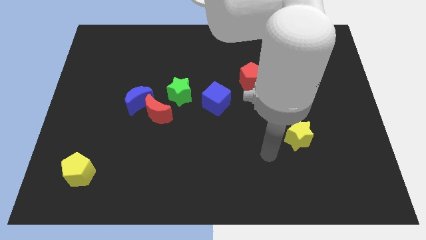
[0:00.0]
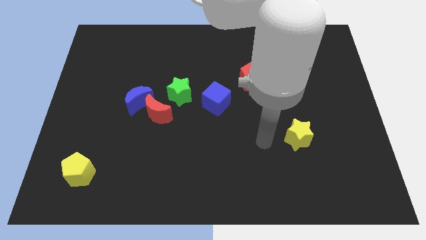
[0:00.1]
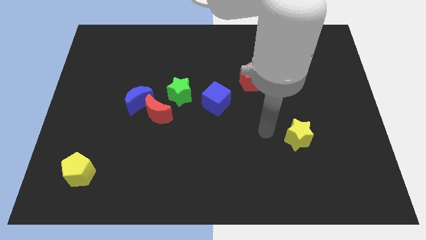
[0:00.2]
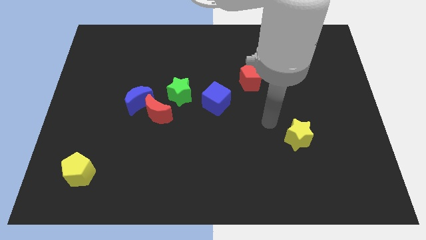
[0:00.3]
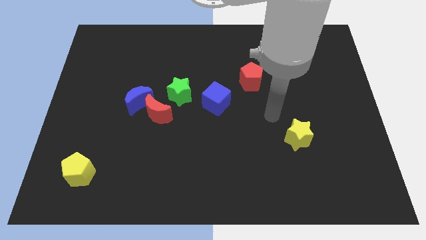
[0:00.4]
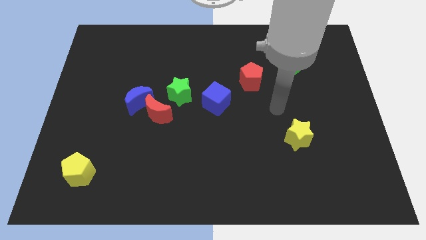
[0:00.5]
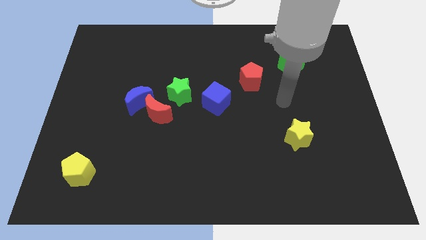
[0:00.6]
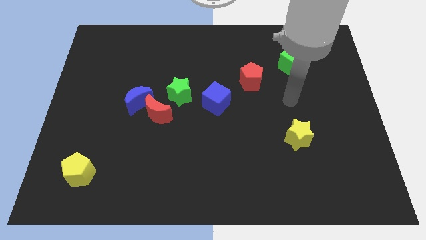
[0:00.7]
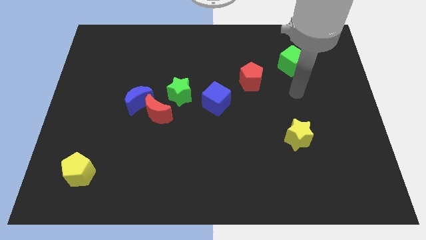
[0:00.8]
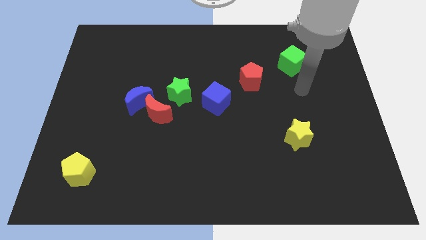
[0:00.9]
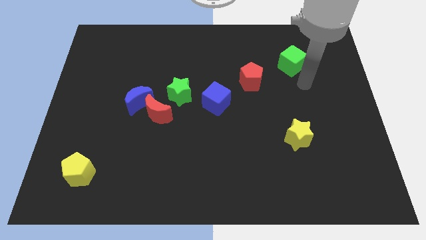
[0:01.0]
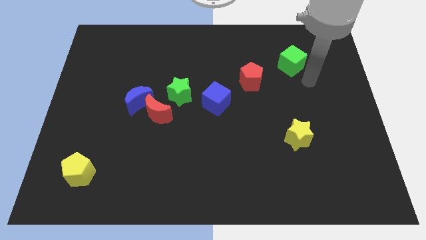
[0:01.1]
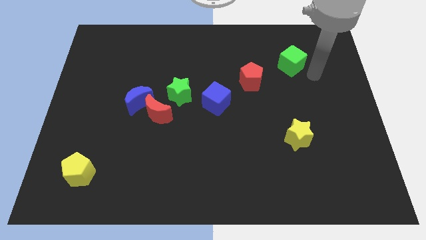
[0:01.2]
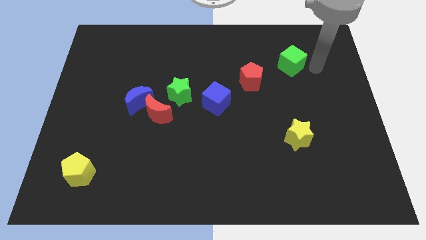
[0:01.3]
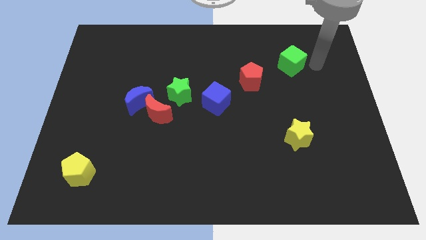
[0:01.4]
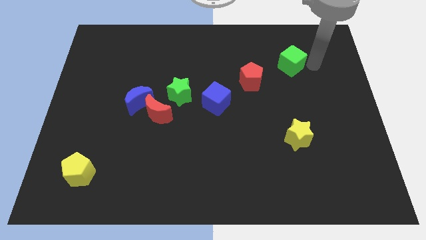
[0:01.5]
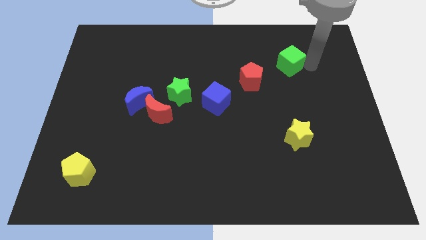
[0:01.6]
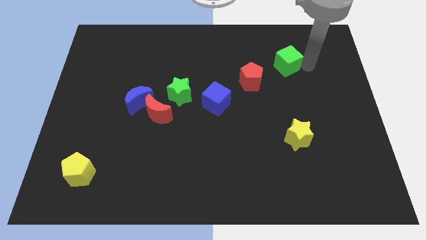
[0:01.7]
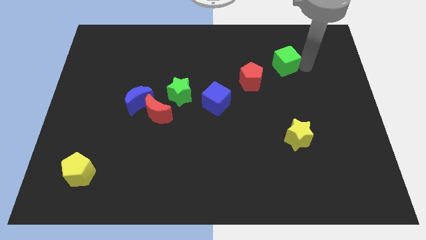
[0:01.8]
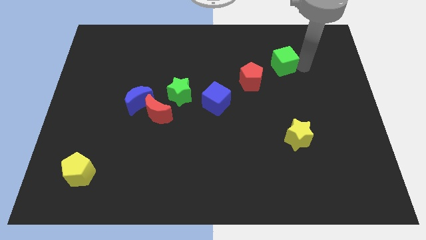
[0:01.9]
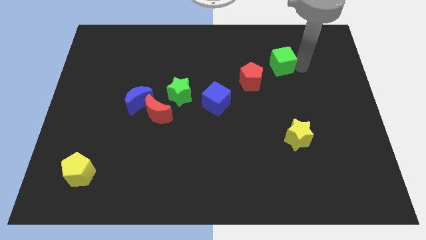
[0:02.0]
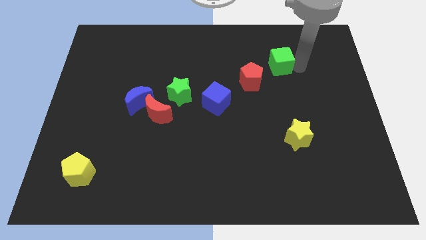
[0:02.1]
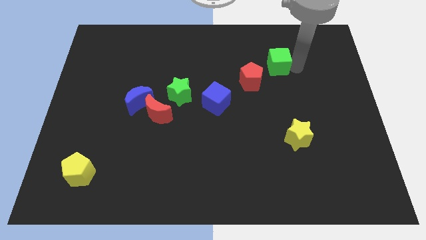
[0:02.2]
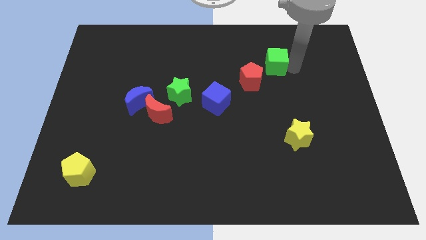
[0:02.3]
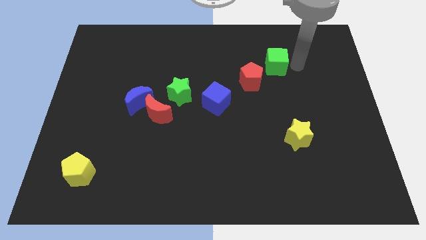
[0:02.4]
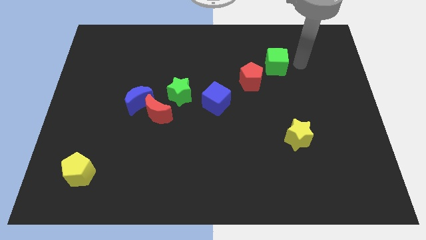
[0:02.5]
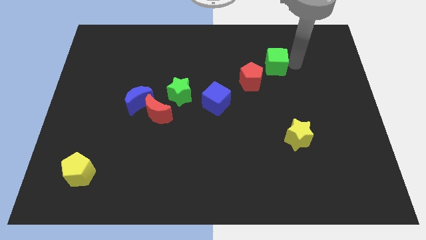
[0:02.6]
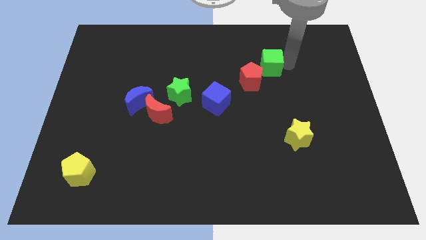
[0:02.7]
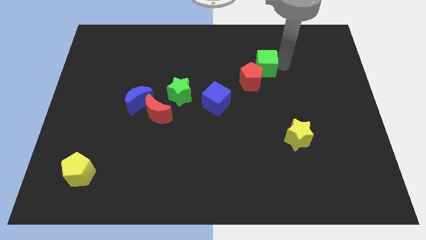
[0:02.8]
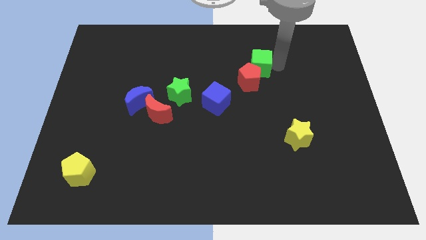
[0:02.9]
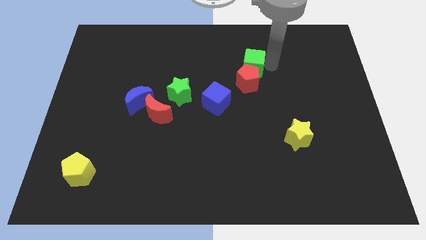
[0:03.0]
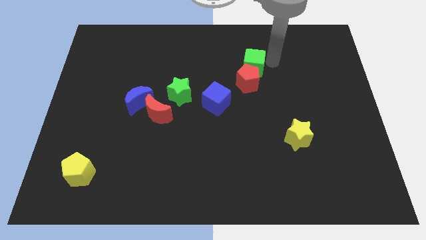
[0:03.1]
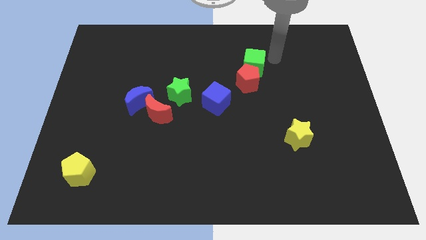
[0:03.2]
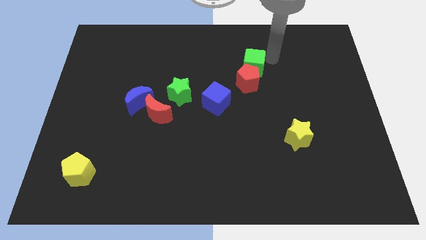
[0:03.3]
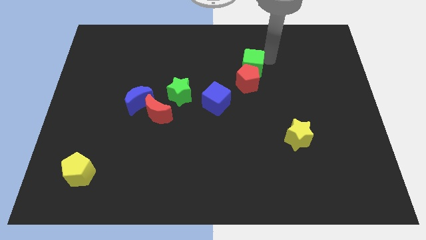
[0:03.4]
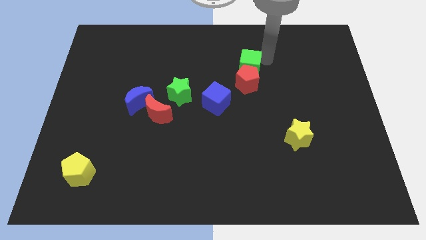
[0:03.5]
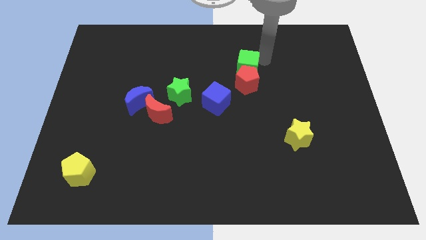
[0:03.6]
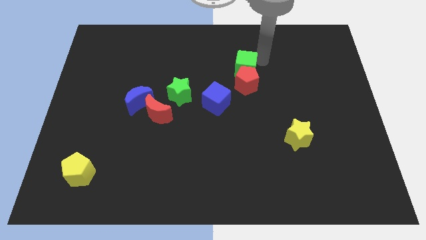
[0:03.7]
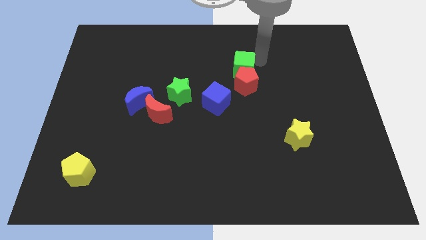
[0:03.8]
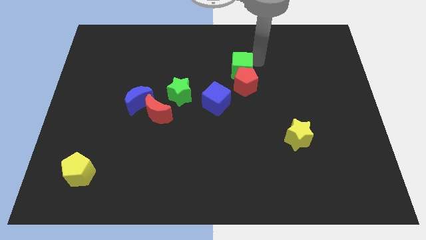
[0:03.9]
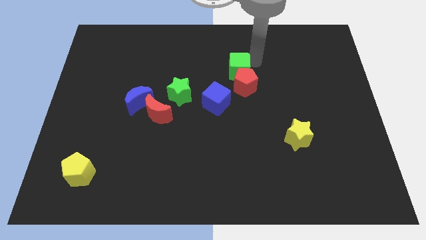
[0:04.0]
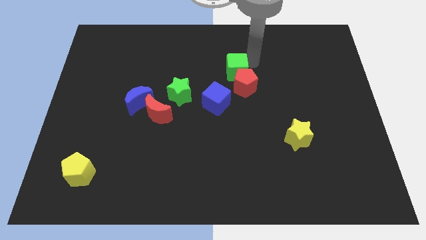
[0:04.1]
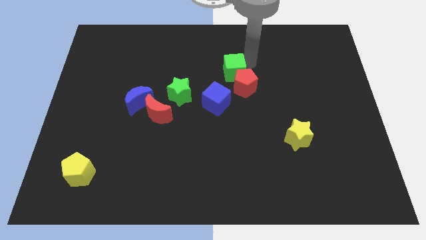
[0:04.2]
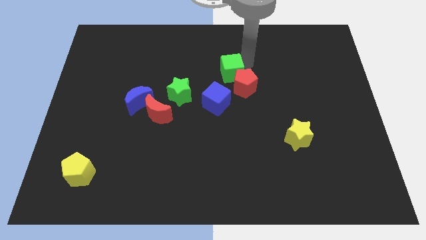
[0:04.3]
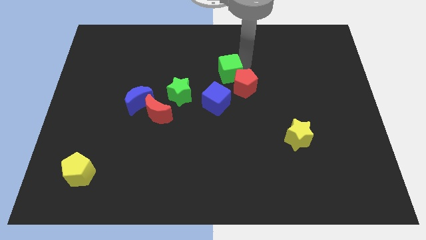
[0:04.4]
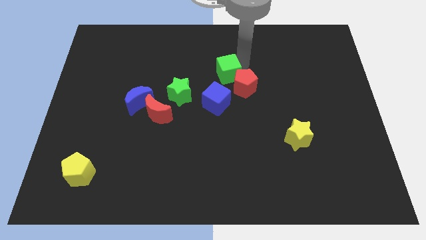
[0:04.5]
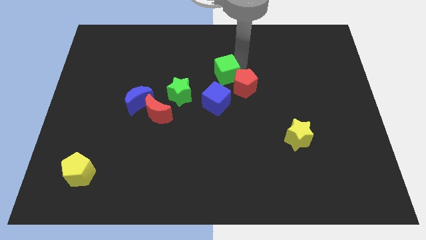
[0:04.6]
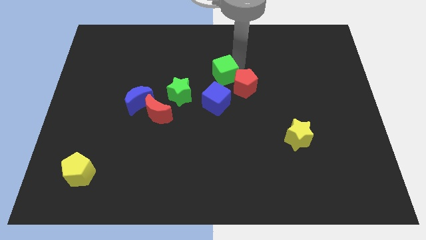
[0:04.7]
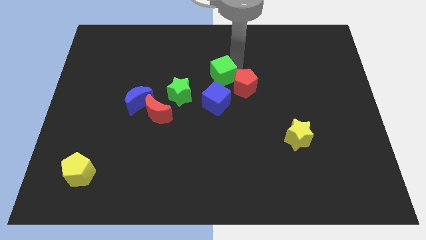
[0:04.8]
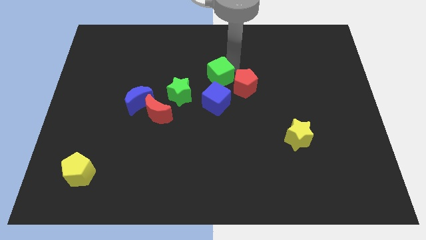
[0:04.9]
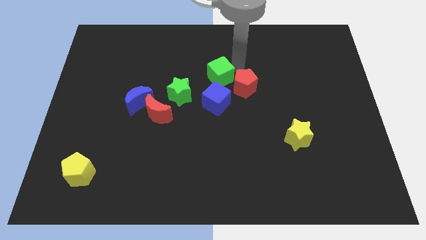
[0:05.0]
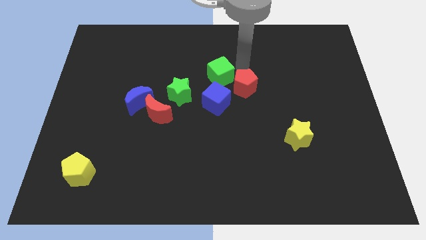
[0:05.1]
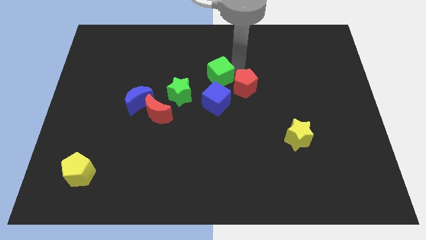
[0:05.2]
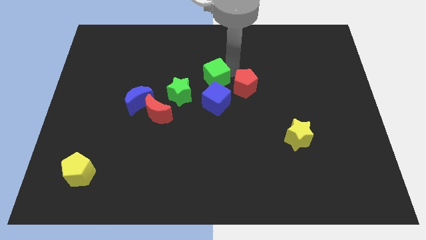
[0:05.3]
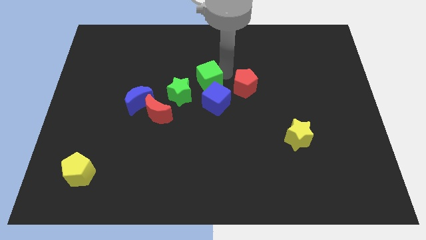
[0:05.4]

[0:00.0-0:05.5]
push the green cube diagonally up and to the left of the blue cube

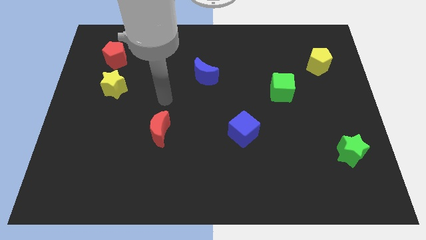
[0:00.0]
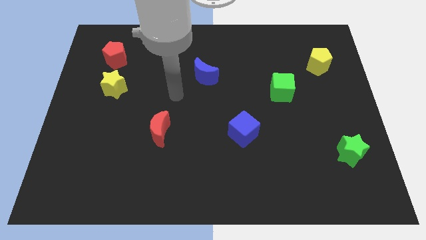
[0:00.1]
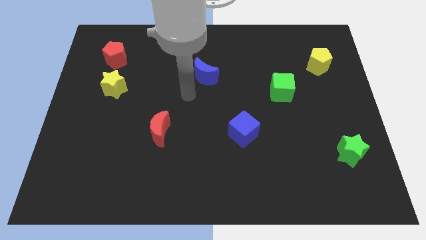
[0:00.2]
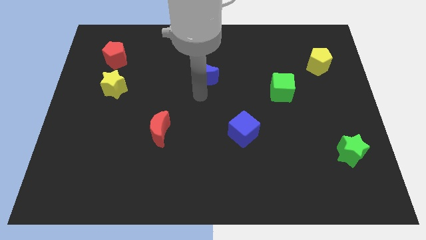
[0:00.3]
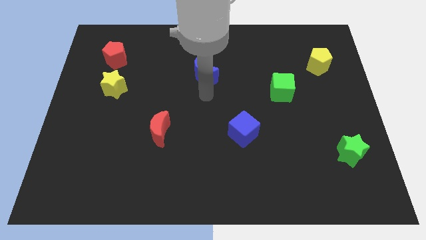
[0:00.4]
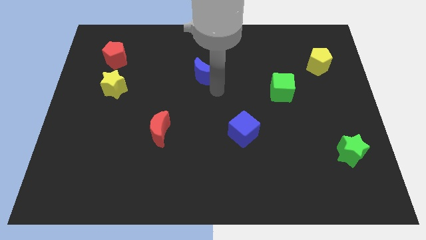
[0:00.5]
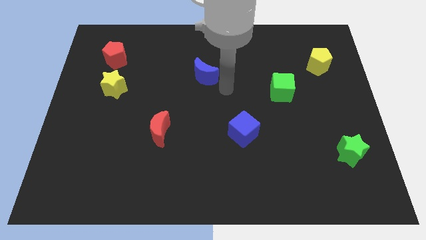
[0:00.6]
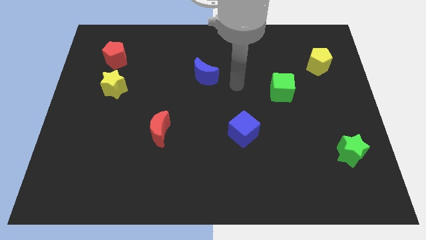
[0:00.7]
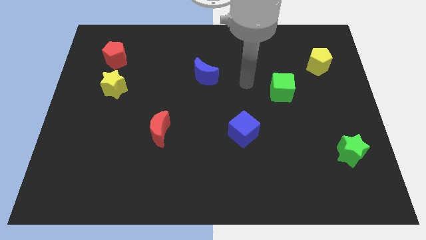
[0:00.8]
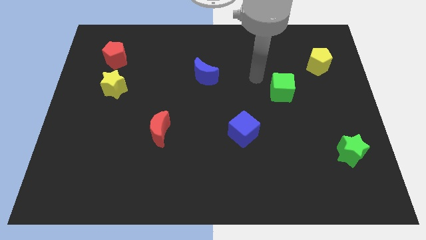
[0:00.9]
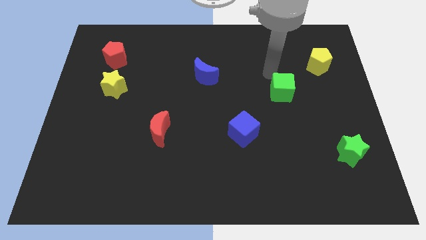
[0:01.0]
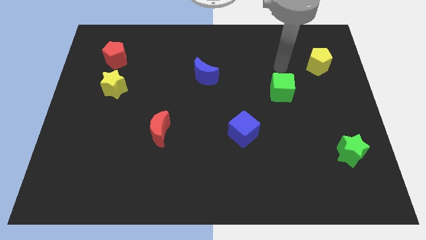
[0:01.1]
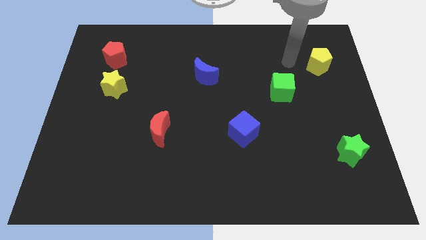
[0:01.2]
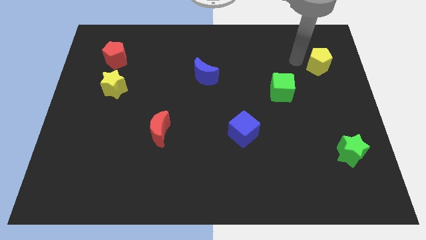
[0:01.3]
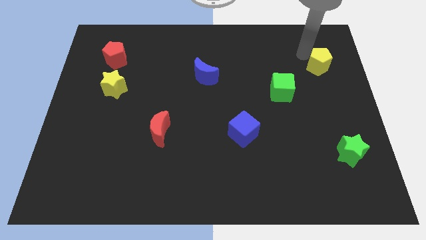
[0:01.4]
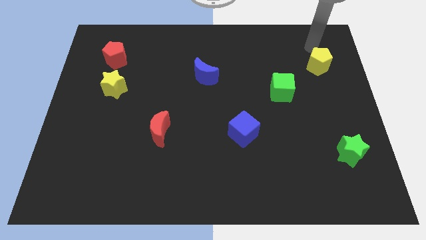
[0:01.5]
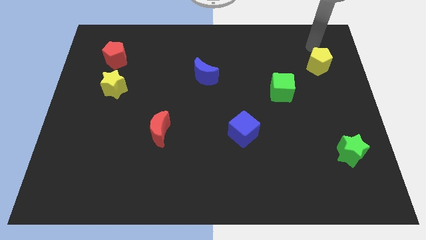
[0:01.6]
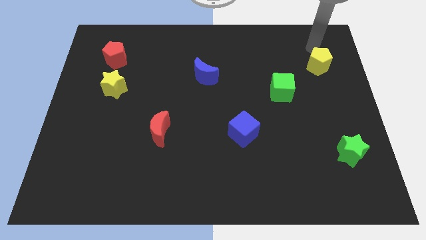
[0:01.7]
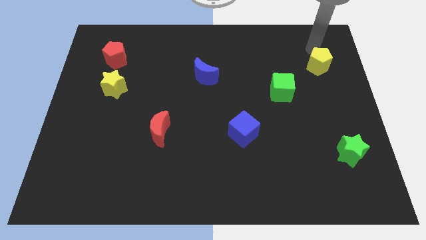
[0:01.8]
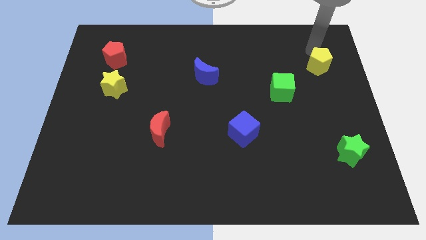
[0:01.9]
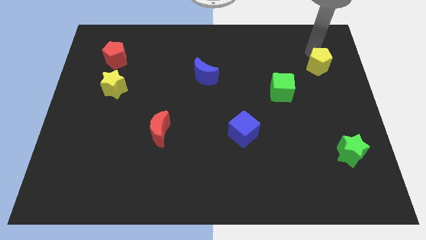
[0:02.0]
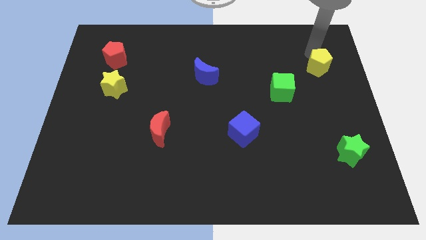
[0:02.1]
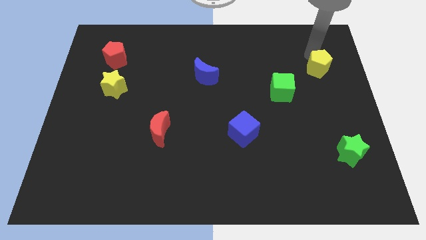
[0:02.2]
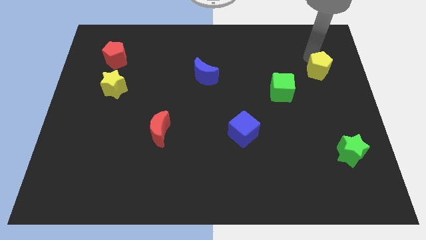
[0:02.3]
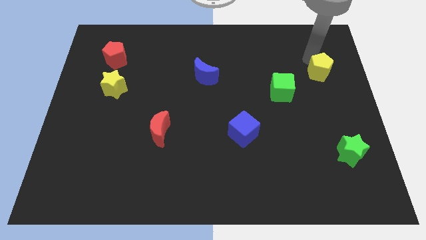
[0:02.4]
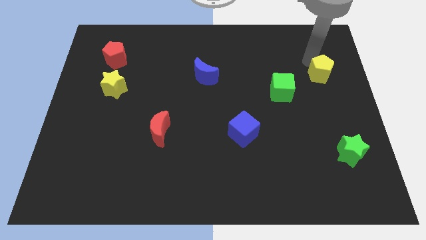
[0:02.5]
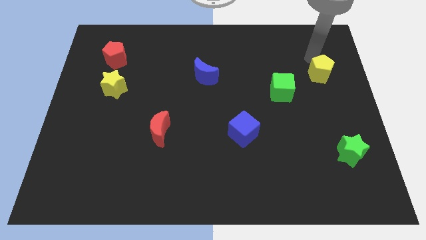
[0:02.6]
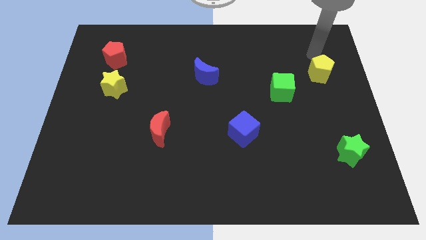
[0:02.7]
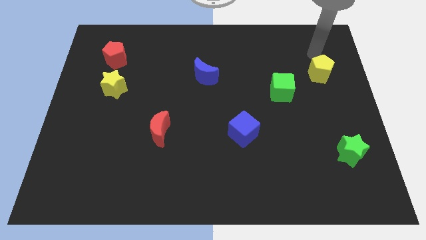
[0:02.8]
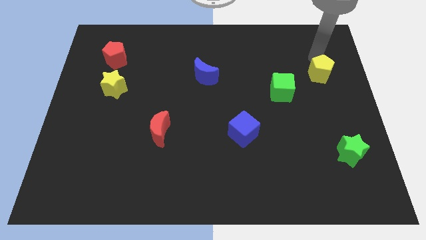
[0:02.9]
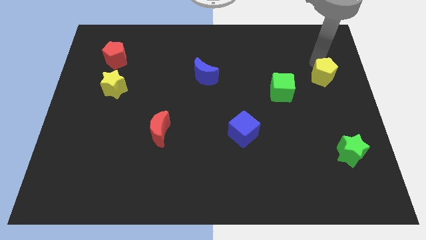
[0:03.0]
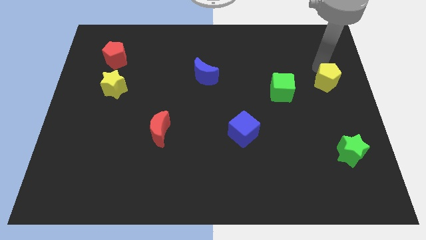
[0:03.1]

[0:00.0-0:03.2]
put the yellow pentagon just right of the green cube
